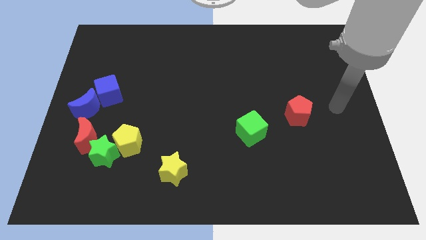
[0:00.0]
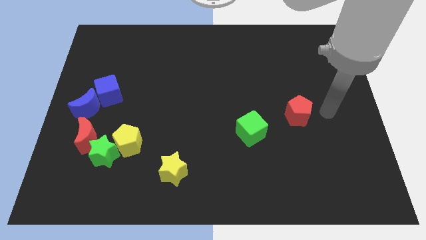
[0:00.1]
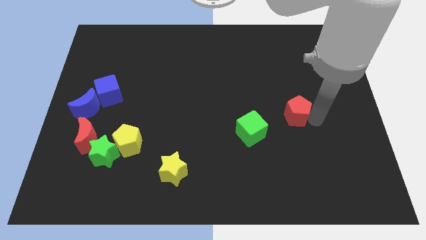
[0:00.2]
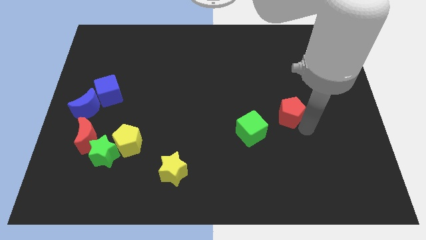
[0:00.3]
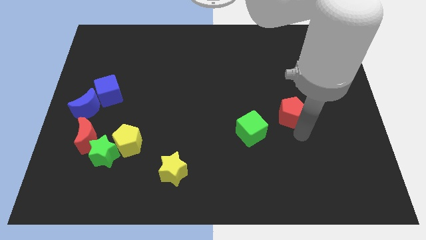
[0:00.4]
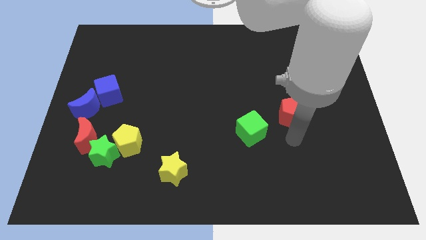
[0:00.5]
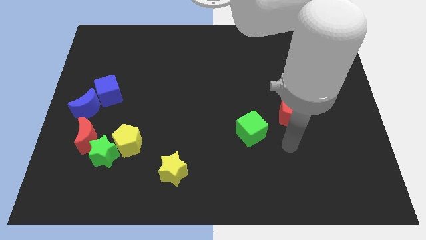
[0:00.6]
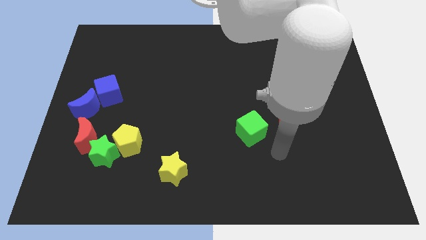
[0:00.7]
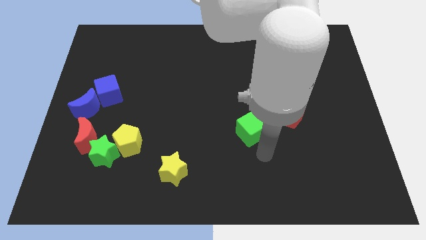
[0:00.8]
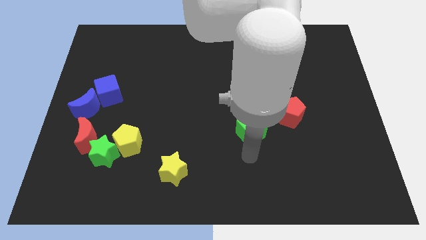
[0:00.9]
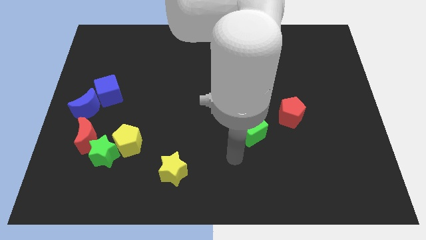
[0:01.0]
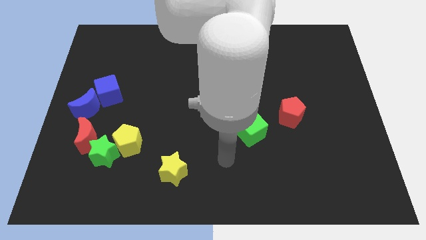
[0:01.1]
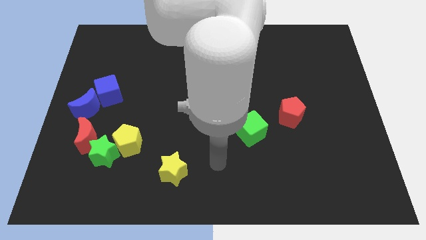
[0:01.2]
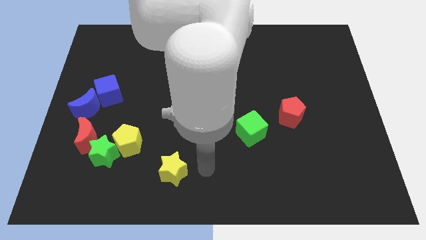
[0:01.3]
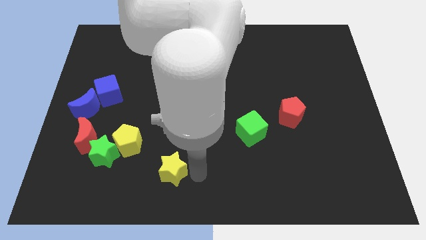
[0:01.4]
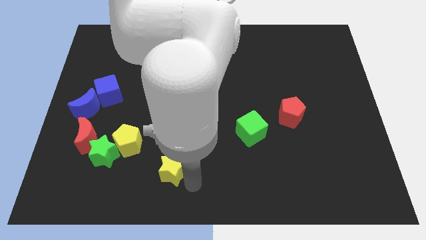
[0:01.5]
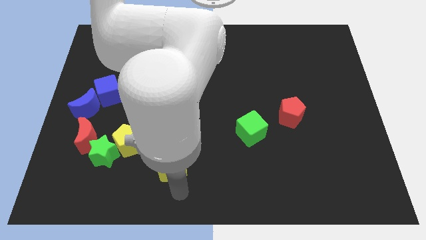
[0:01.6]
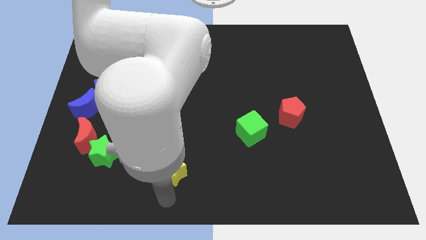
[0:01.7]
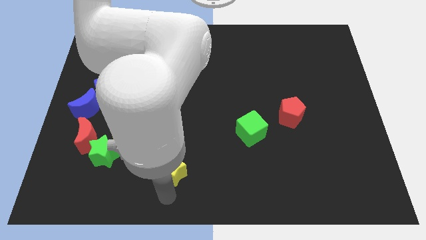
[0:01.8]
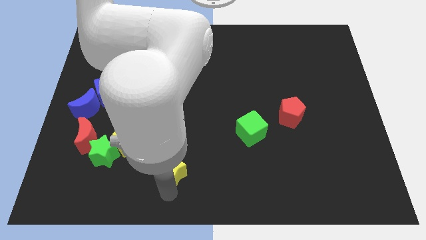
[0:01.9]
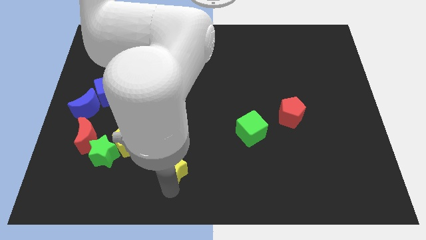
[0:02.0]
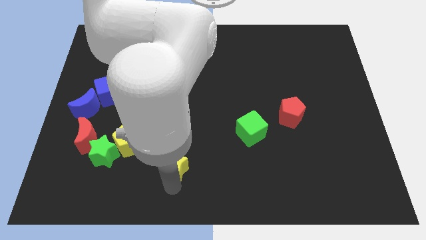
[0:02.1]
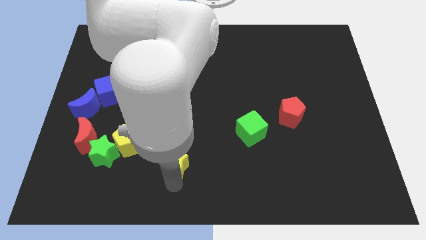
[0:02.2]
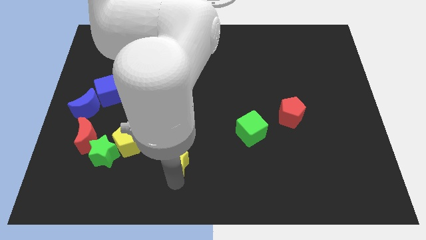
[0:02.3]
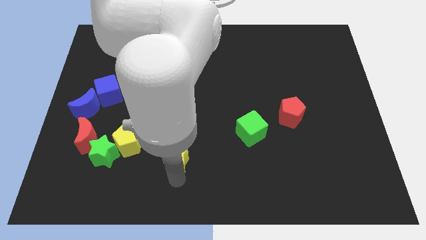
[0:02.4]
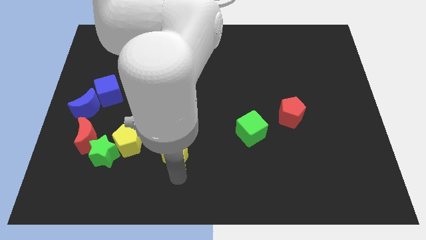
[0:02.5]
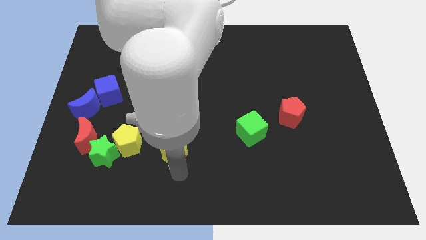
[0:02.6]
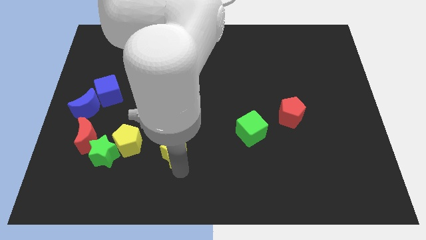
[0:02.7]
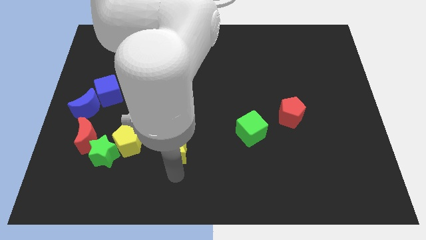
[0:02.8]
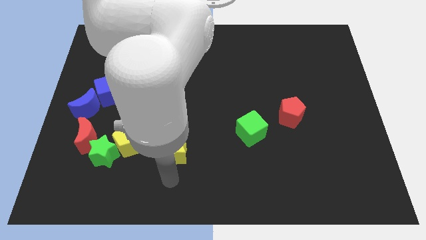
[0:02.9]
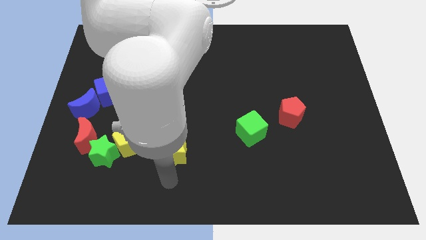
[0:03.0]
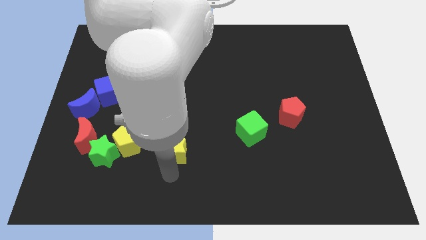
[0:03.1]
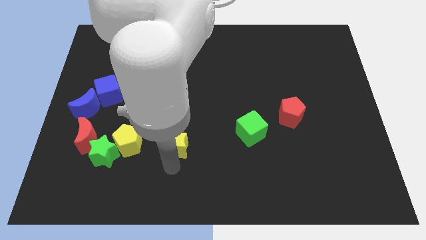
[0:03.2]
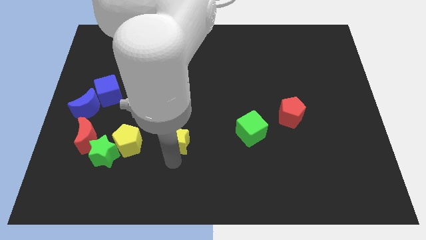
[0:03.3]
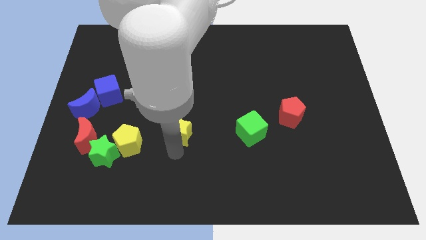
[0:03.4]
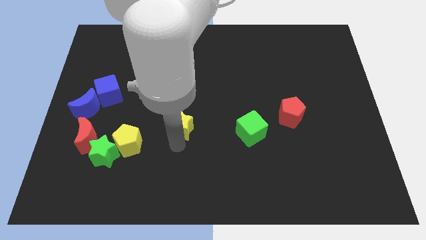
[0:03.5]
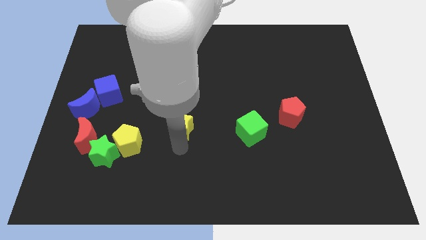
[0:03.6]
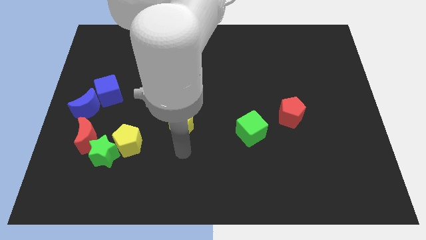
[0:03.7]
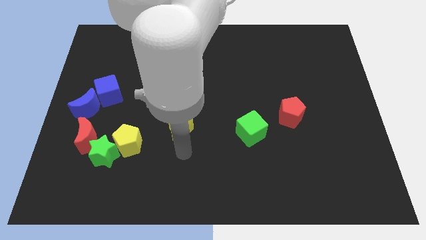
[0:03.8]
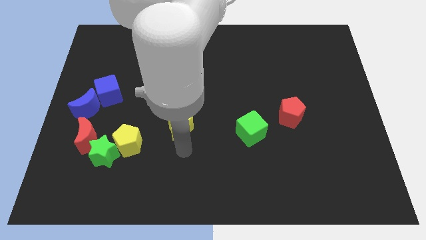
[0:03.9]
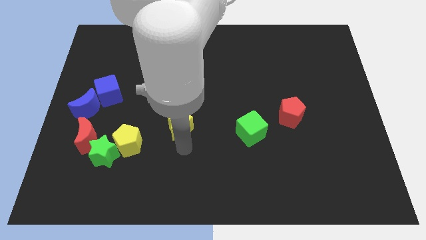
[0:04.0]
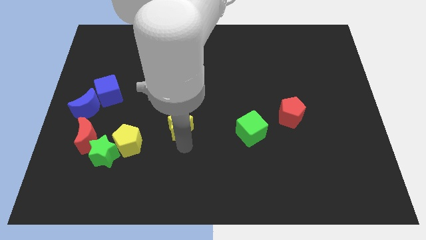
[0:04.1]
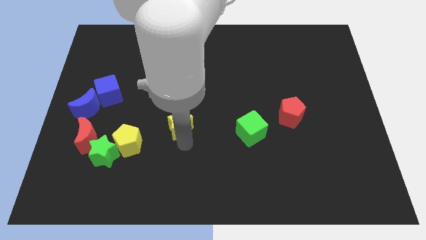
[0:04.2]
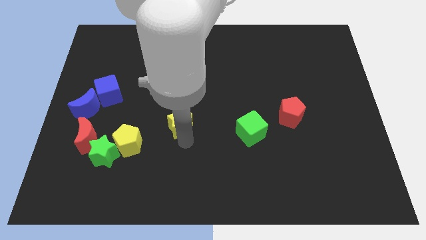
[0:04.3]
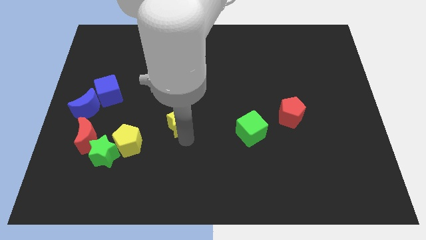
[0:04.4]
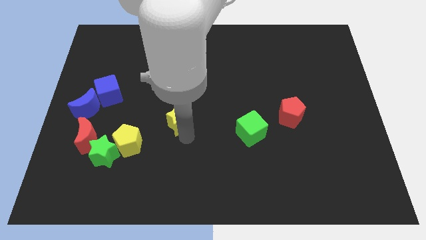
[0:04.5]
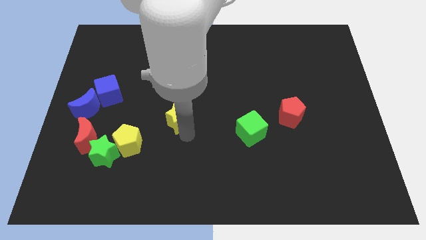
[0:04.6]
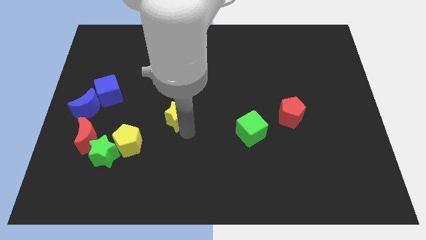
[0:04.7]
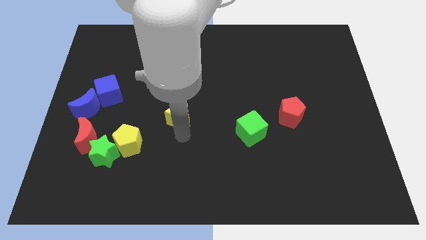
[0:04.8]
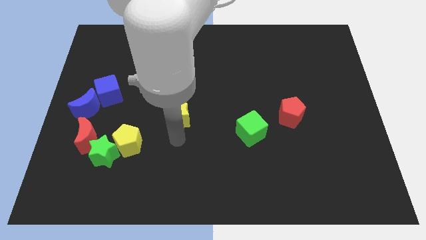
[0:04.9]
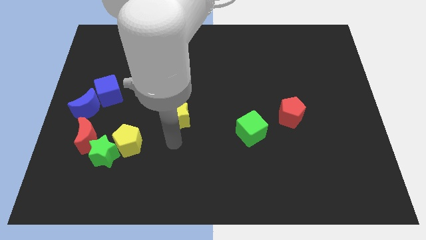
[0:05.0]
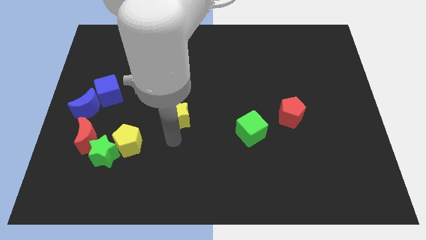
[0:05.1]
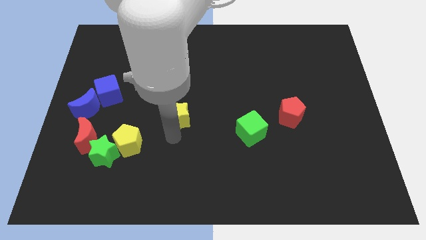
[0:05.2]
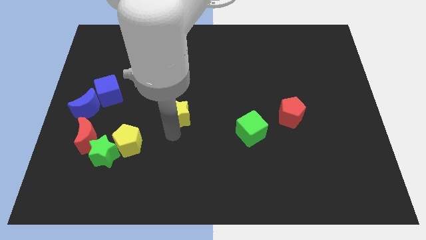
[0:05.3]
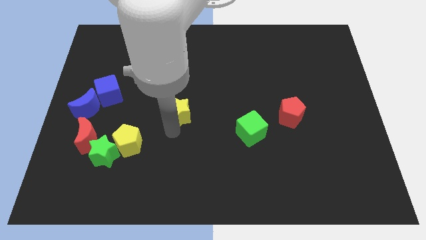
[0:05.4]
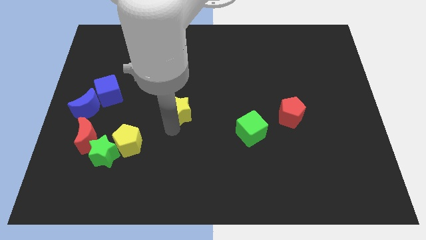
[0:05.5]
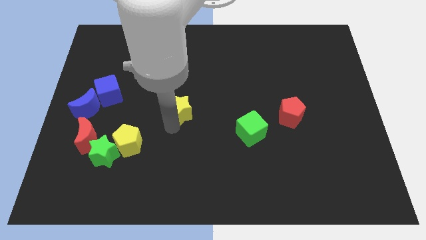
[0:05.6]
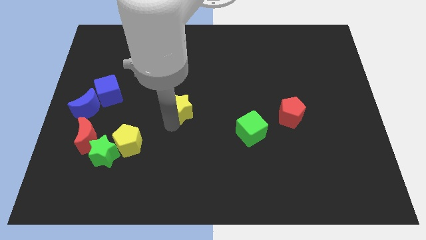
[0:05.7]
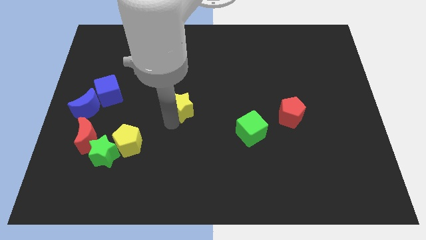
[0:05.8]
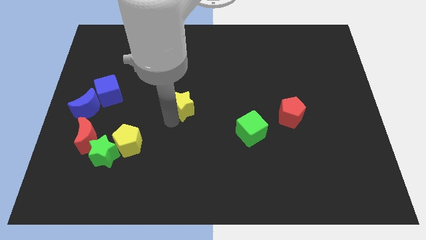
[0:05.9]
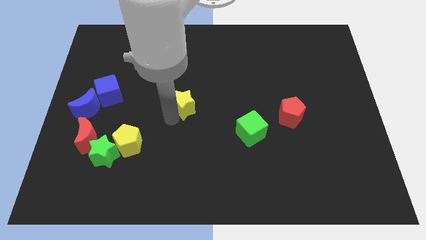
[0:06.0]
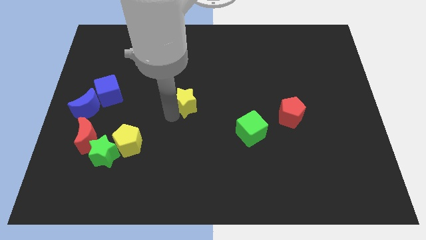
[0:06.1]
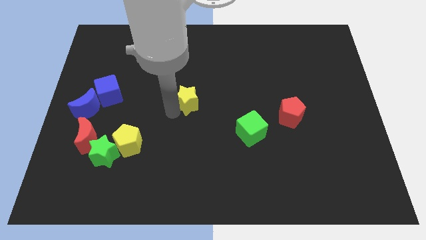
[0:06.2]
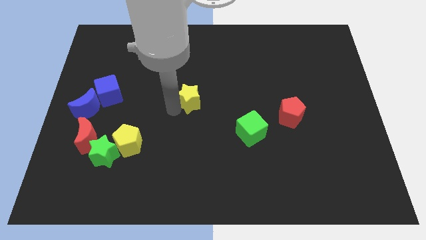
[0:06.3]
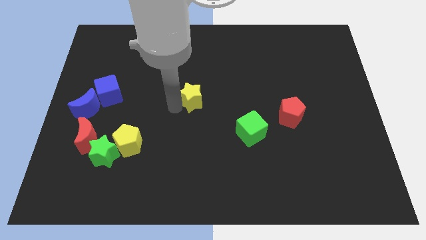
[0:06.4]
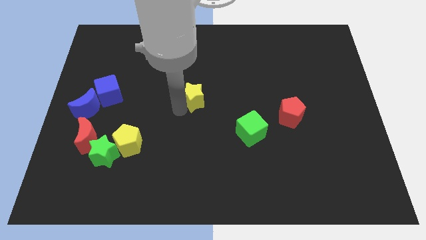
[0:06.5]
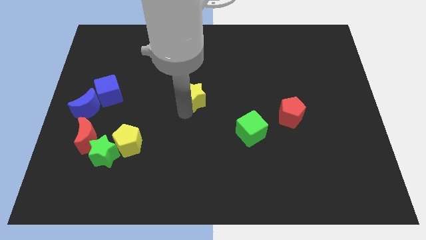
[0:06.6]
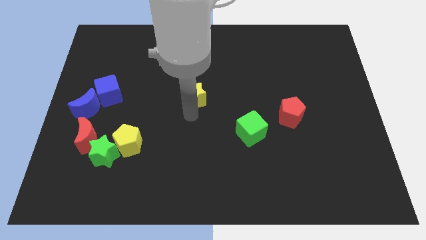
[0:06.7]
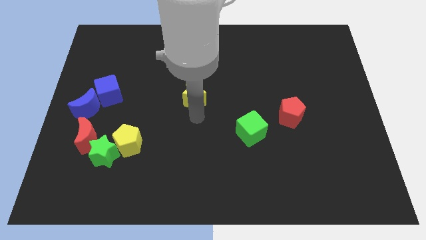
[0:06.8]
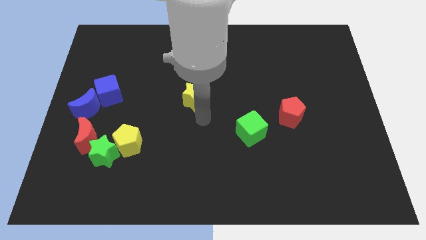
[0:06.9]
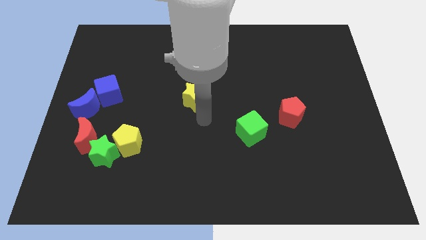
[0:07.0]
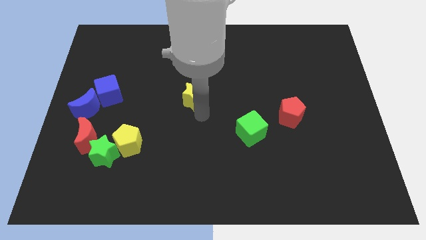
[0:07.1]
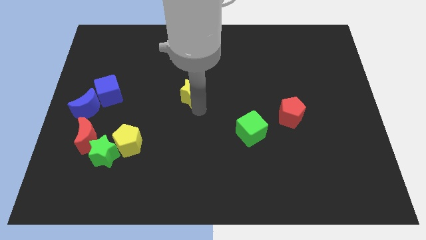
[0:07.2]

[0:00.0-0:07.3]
slide the yellow star upwards

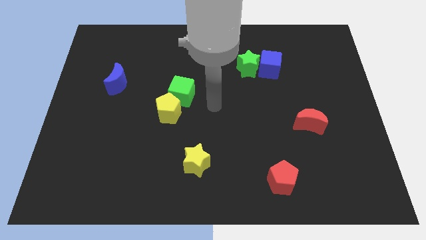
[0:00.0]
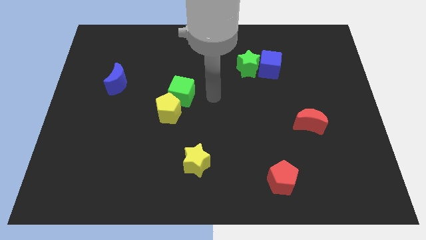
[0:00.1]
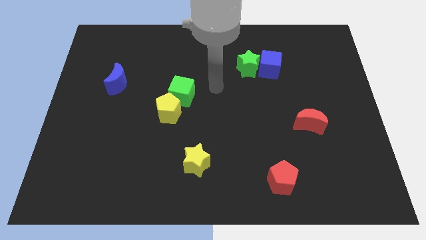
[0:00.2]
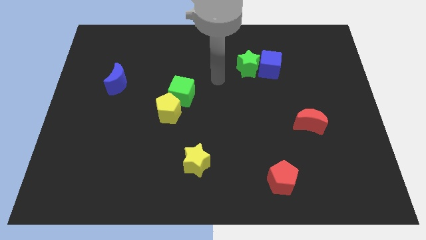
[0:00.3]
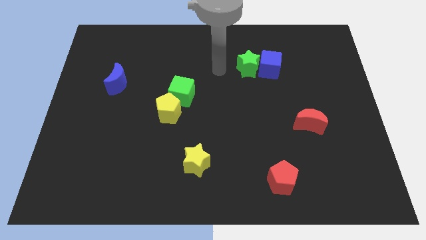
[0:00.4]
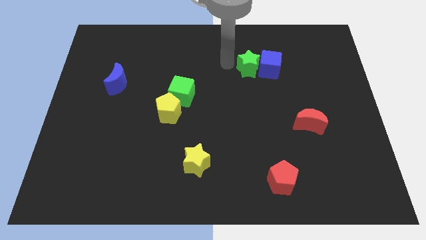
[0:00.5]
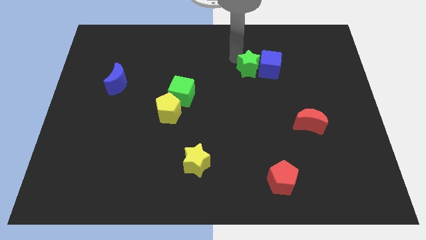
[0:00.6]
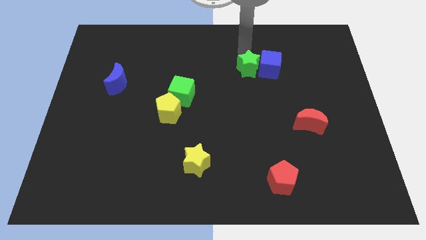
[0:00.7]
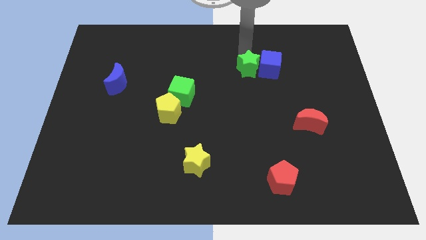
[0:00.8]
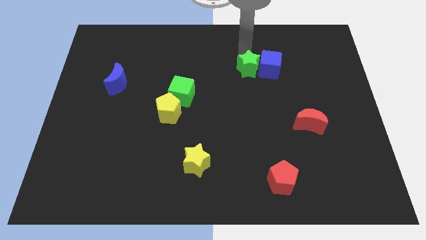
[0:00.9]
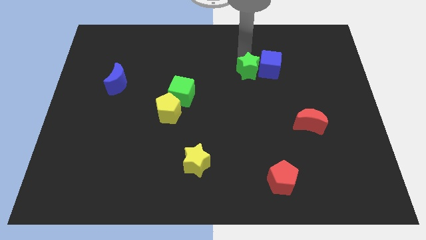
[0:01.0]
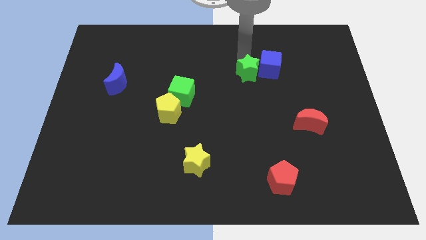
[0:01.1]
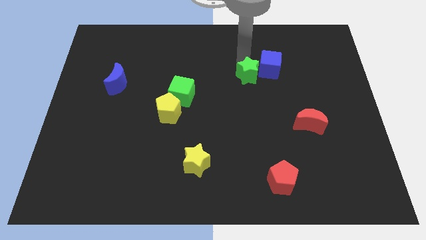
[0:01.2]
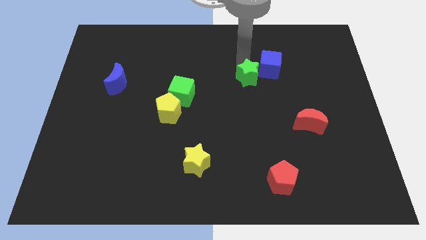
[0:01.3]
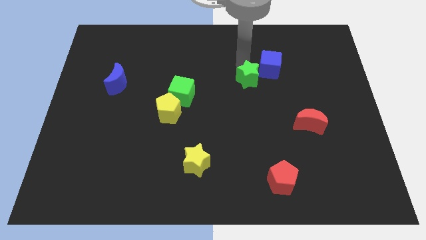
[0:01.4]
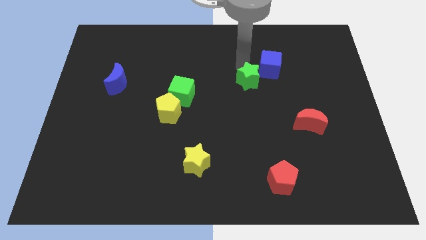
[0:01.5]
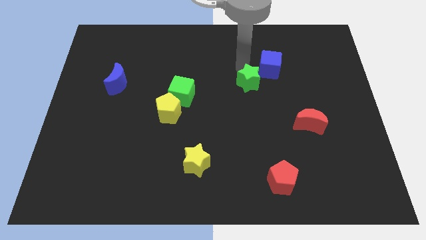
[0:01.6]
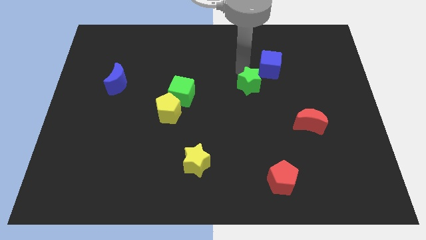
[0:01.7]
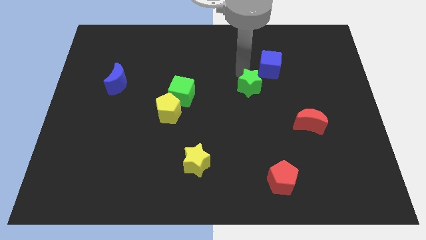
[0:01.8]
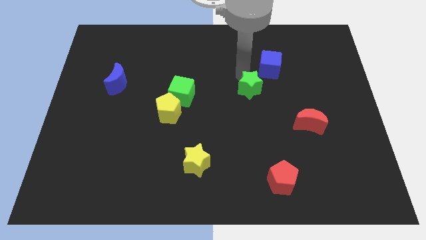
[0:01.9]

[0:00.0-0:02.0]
slide the green star a little downwards
